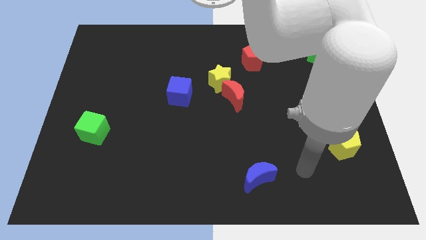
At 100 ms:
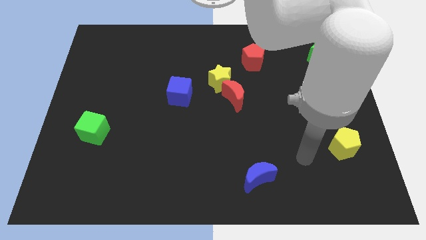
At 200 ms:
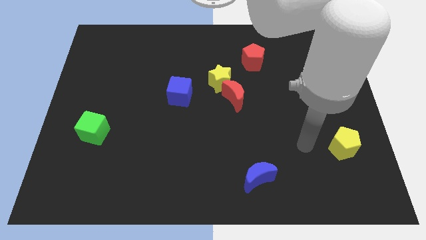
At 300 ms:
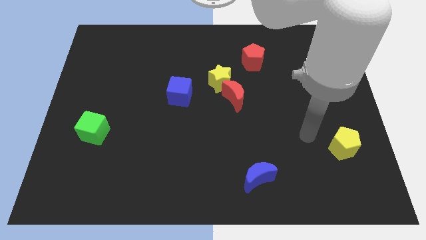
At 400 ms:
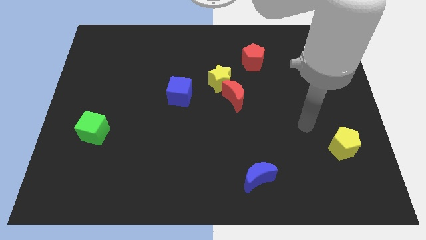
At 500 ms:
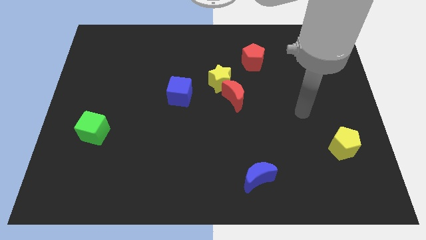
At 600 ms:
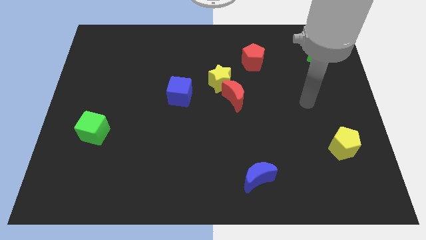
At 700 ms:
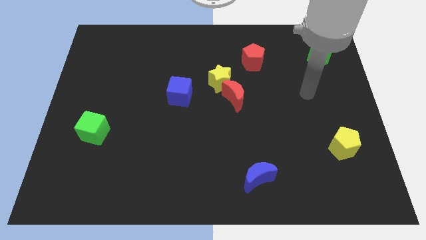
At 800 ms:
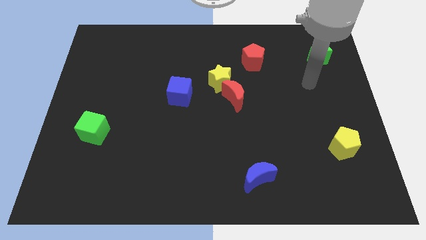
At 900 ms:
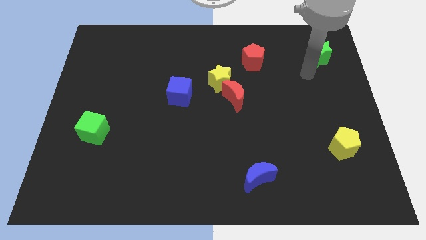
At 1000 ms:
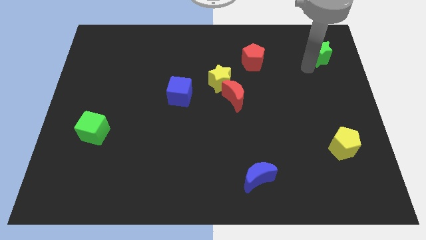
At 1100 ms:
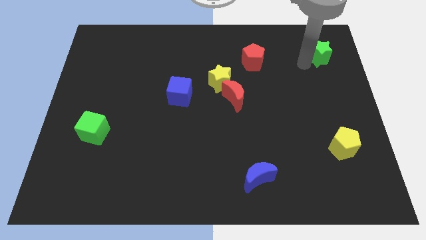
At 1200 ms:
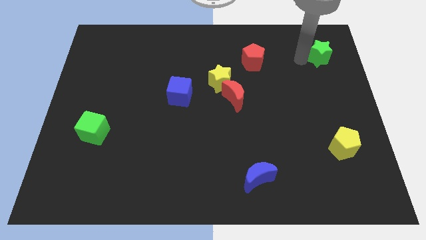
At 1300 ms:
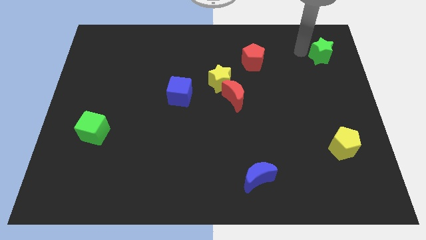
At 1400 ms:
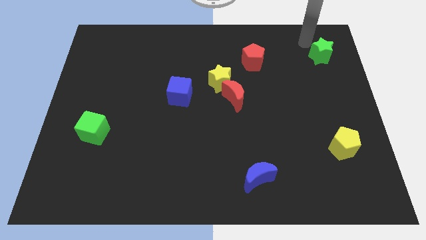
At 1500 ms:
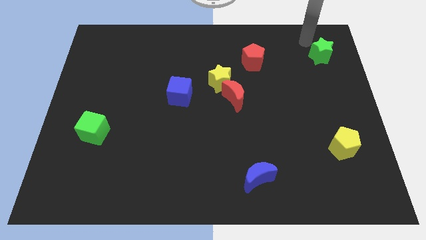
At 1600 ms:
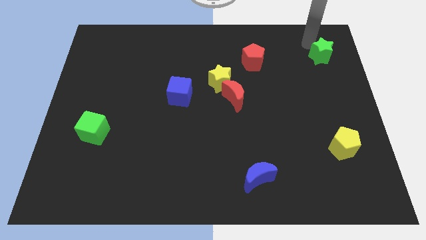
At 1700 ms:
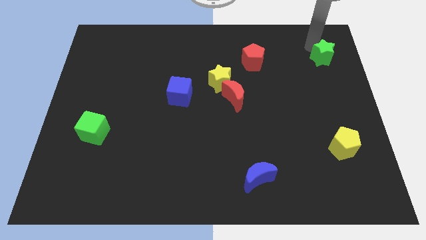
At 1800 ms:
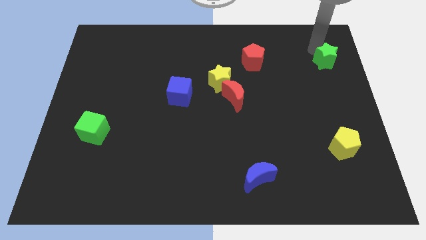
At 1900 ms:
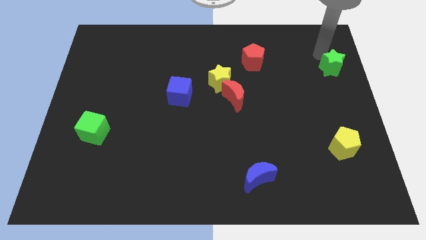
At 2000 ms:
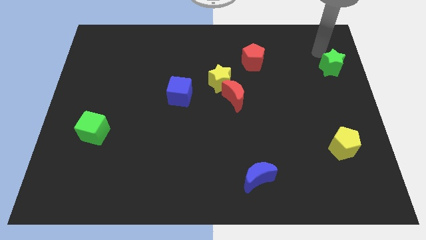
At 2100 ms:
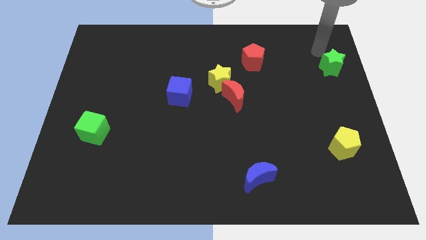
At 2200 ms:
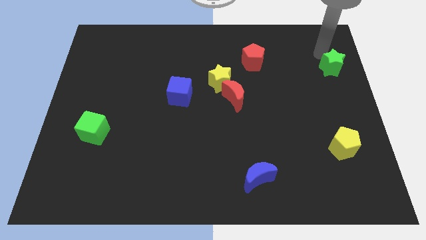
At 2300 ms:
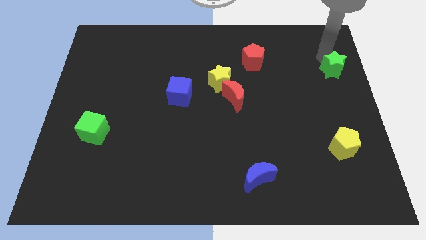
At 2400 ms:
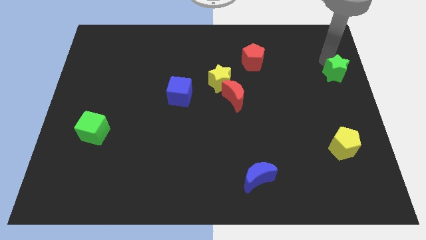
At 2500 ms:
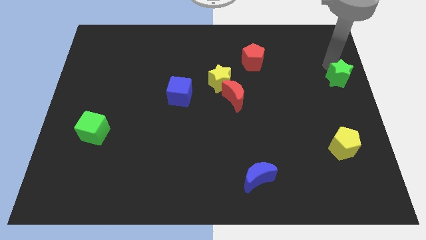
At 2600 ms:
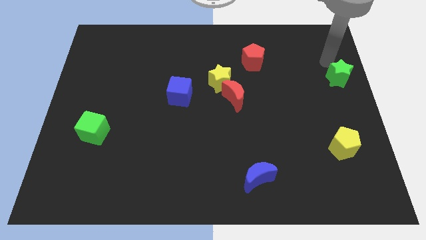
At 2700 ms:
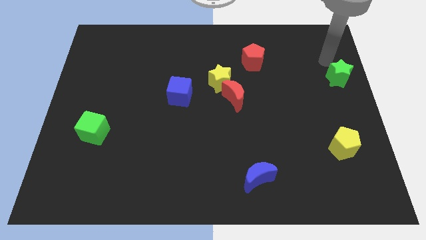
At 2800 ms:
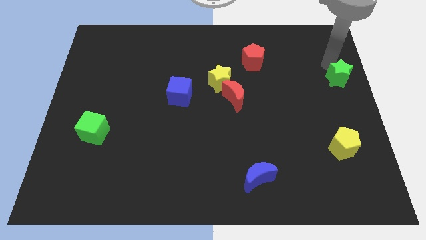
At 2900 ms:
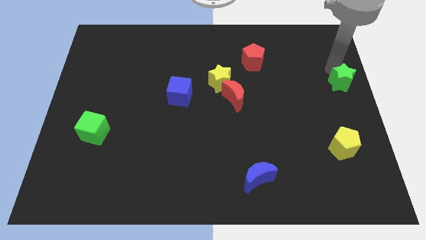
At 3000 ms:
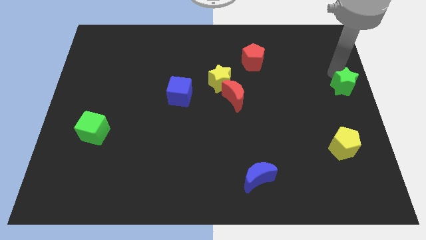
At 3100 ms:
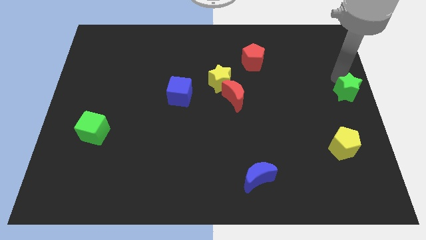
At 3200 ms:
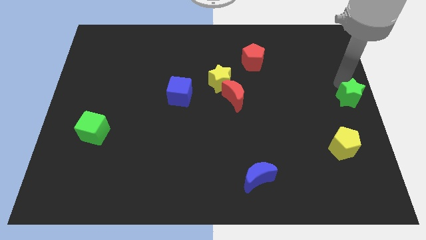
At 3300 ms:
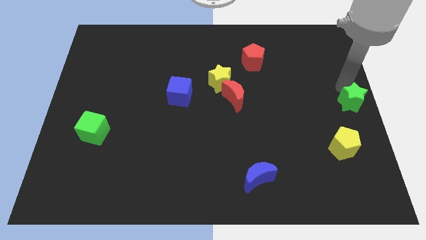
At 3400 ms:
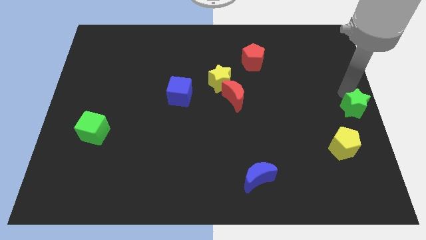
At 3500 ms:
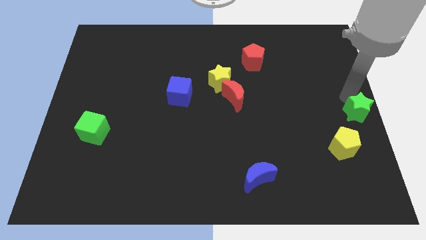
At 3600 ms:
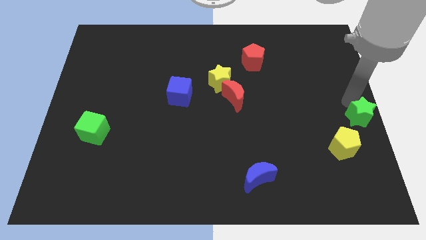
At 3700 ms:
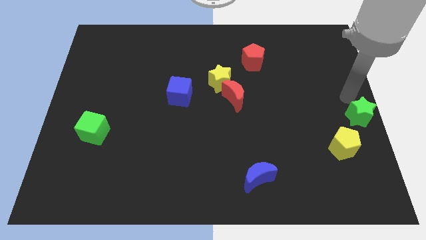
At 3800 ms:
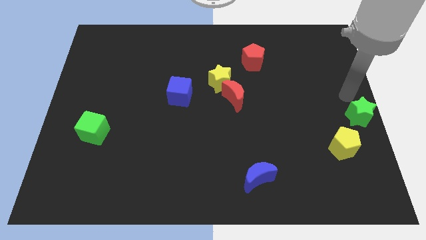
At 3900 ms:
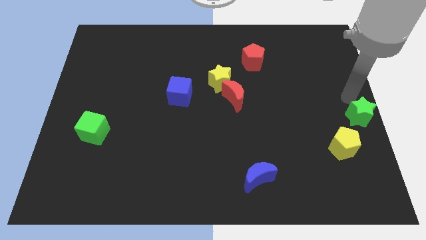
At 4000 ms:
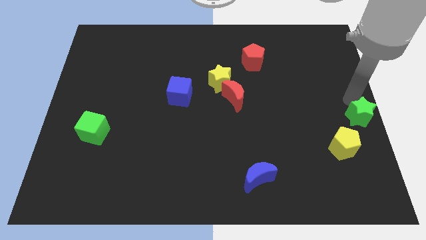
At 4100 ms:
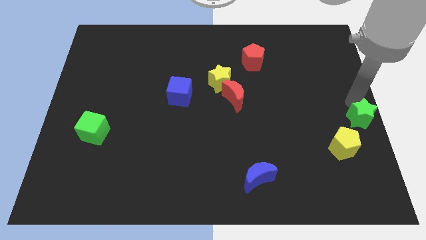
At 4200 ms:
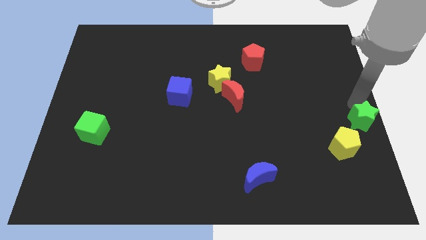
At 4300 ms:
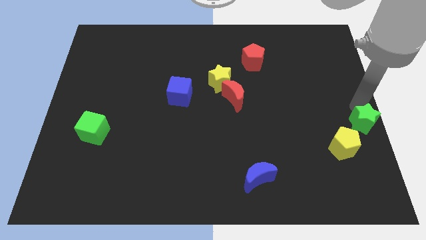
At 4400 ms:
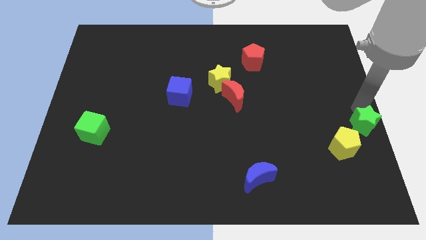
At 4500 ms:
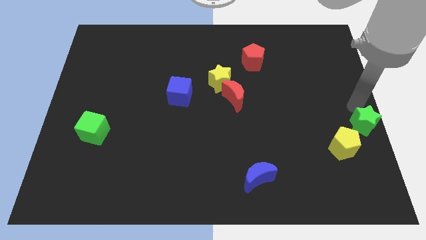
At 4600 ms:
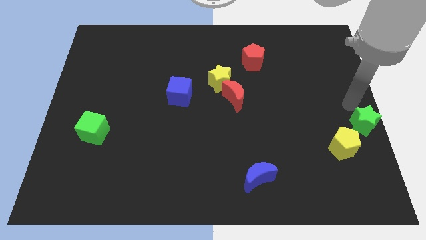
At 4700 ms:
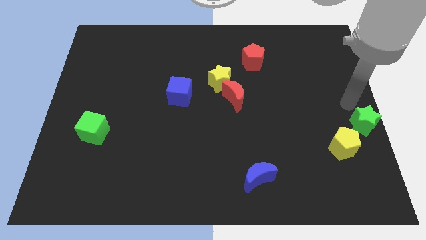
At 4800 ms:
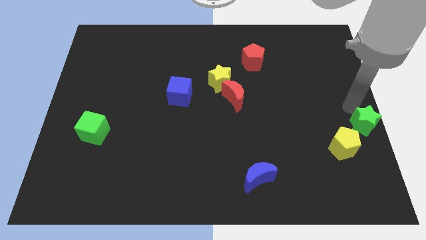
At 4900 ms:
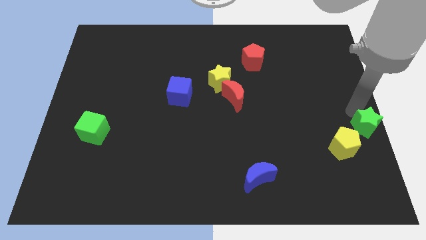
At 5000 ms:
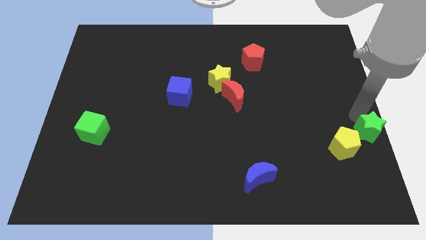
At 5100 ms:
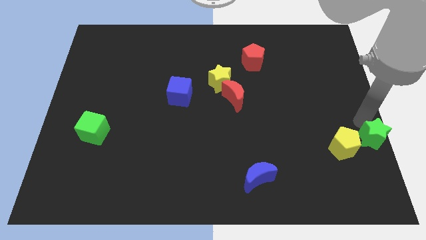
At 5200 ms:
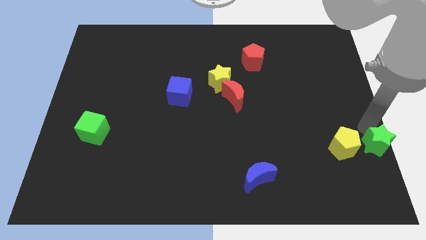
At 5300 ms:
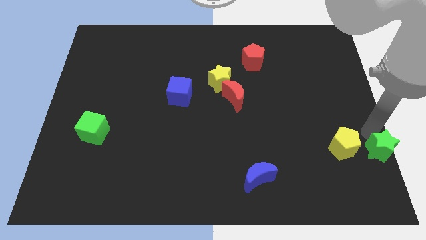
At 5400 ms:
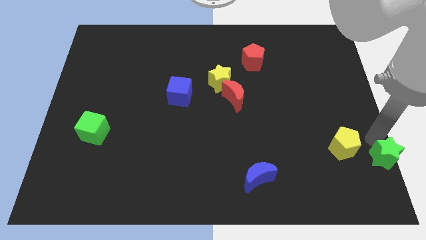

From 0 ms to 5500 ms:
slide the green star to the bottom right corner

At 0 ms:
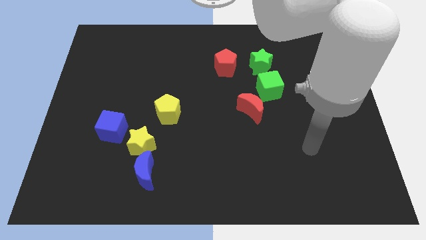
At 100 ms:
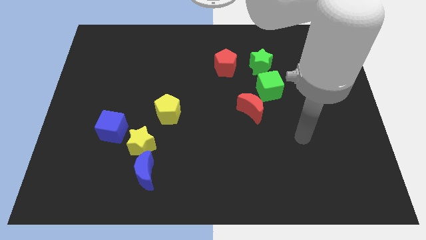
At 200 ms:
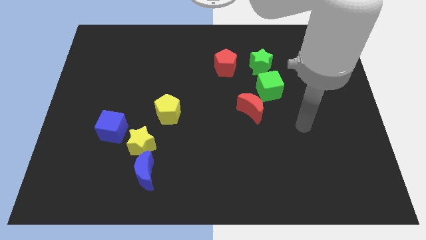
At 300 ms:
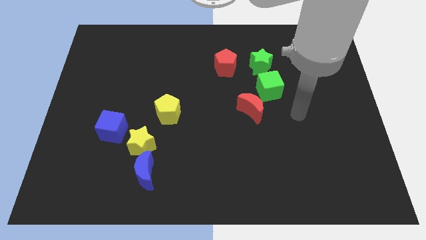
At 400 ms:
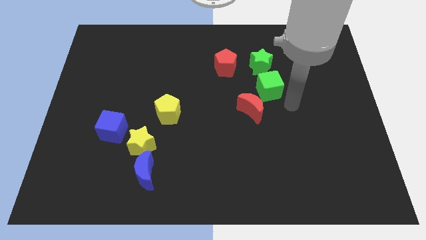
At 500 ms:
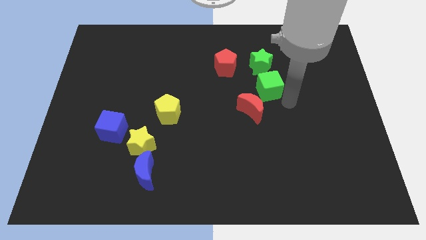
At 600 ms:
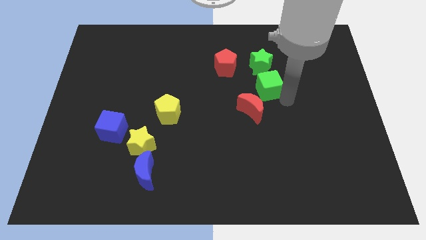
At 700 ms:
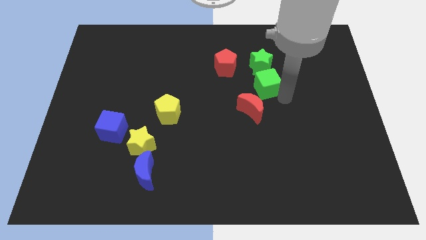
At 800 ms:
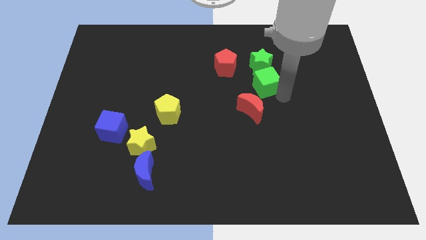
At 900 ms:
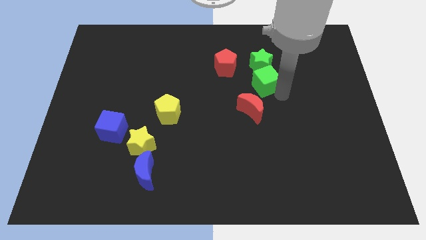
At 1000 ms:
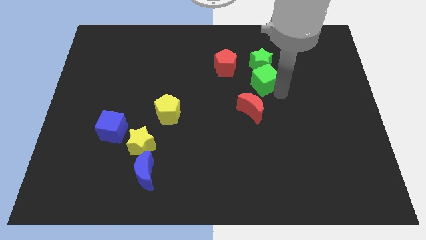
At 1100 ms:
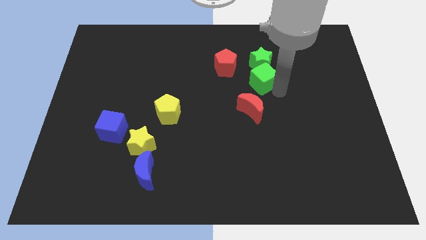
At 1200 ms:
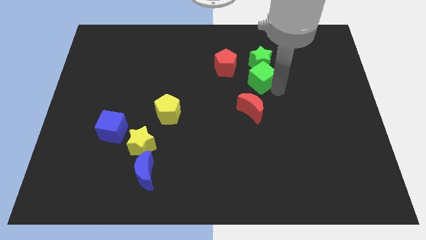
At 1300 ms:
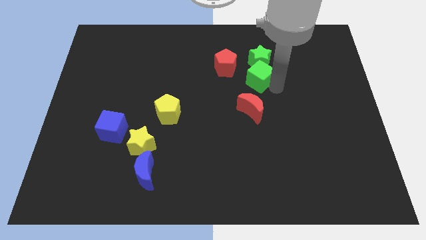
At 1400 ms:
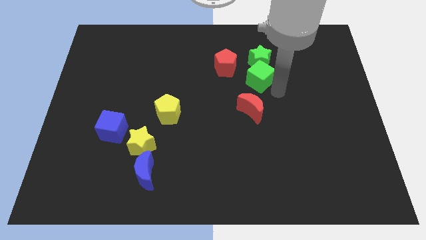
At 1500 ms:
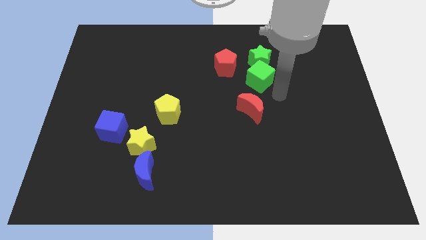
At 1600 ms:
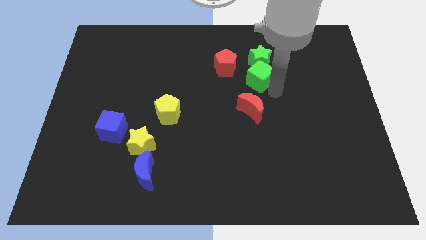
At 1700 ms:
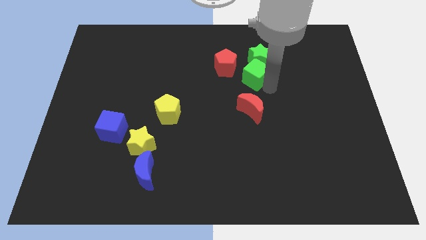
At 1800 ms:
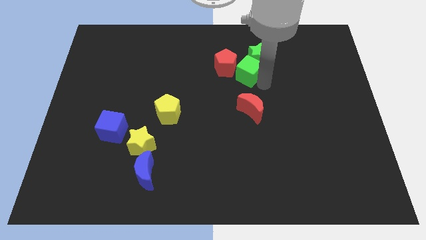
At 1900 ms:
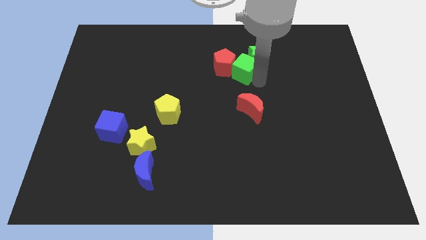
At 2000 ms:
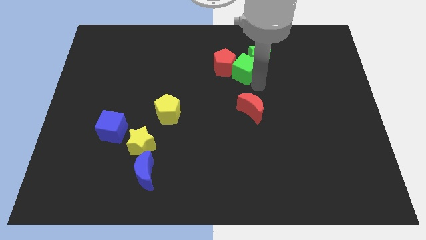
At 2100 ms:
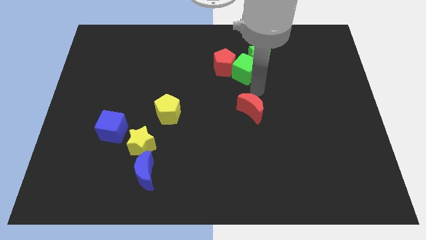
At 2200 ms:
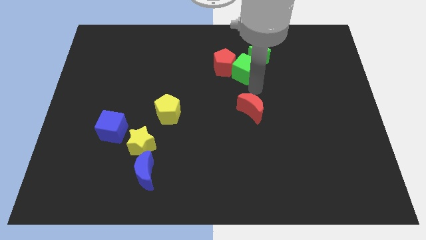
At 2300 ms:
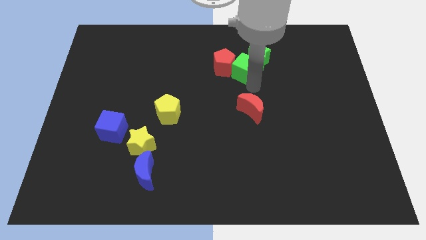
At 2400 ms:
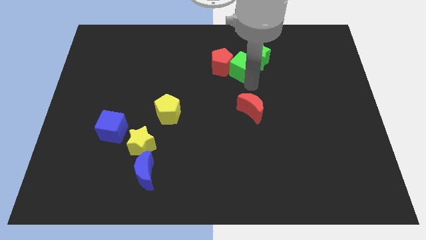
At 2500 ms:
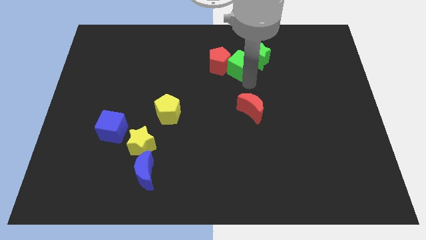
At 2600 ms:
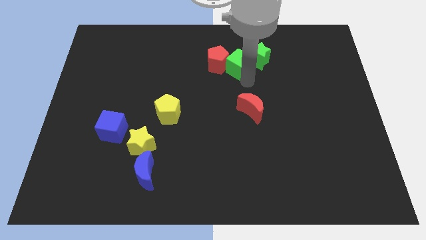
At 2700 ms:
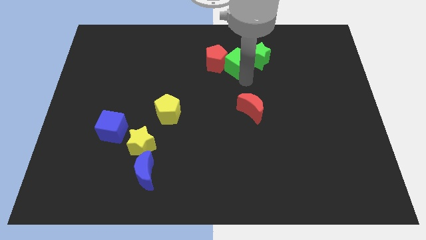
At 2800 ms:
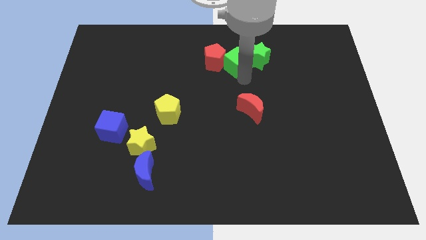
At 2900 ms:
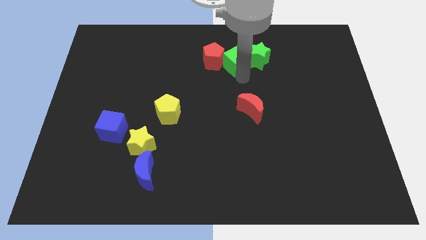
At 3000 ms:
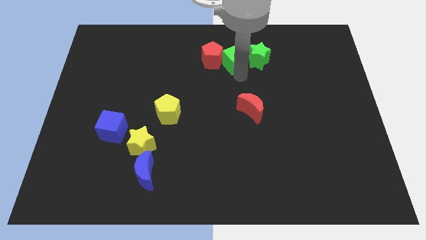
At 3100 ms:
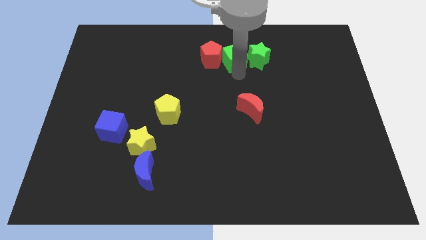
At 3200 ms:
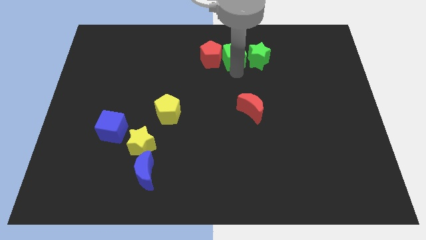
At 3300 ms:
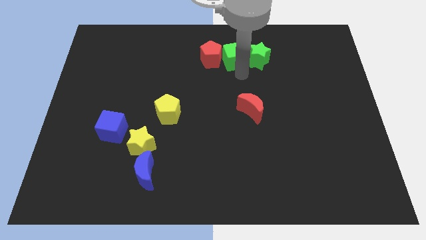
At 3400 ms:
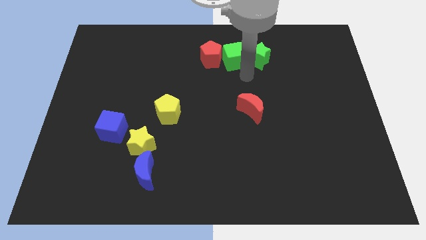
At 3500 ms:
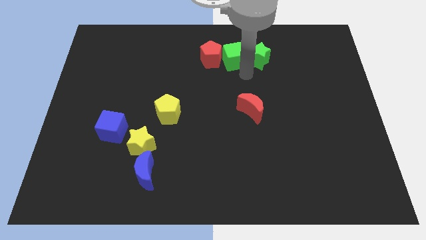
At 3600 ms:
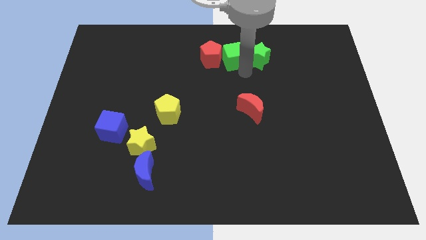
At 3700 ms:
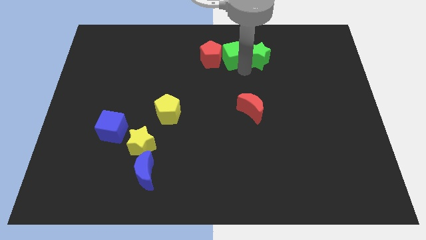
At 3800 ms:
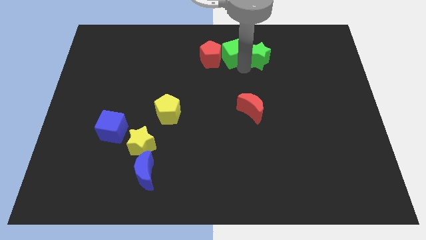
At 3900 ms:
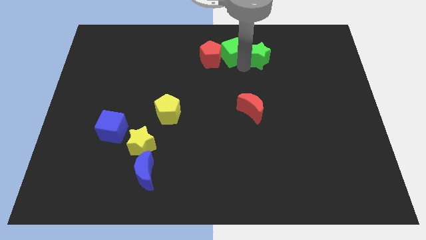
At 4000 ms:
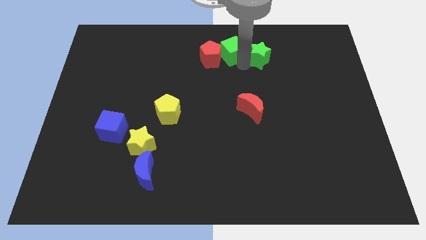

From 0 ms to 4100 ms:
slide the green cube to the top side
